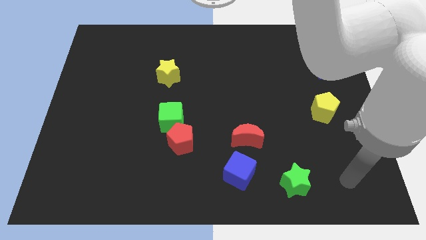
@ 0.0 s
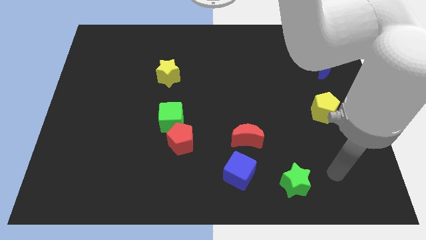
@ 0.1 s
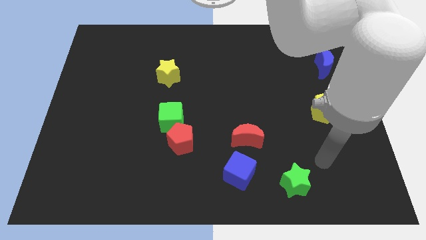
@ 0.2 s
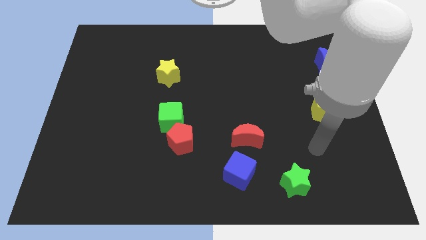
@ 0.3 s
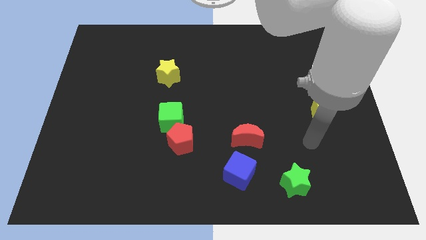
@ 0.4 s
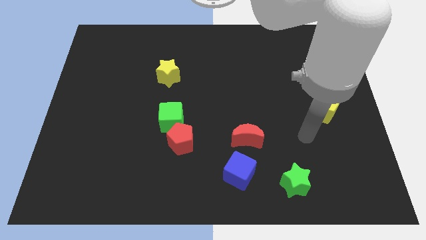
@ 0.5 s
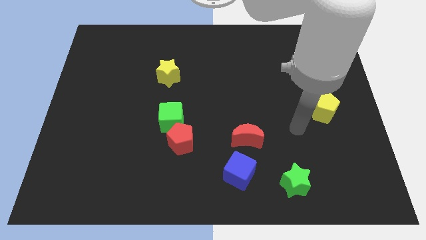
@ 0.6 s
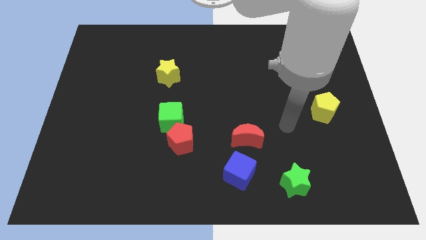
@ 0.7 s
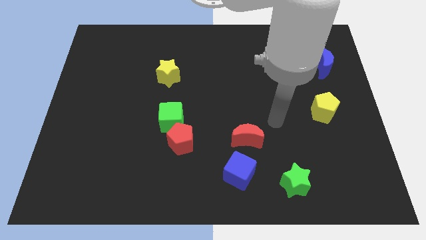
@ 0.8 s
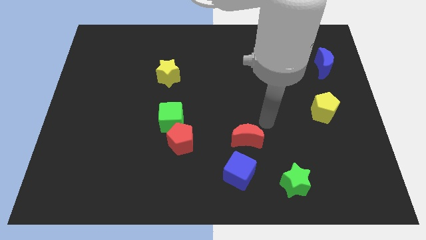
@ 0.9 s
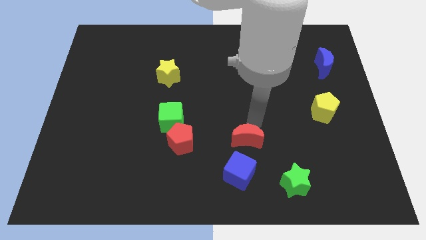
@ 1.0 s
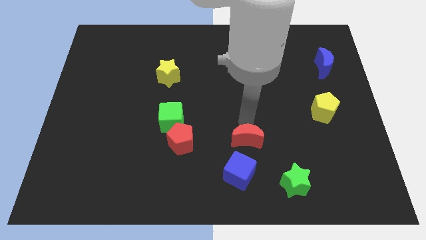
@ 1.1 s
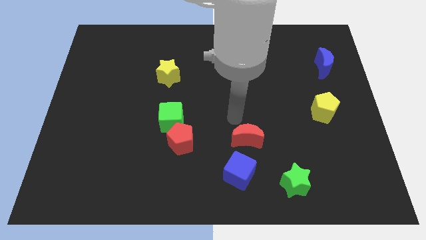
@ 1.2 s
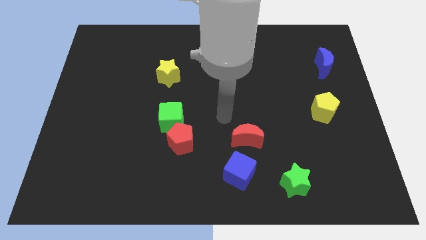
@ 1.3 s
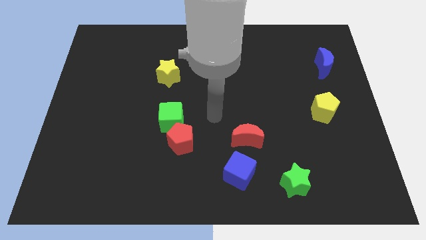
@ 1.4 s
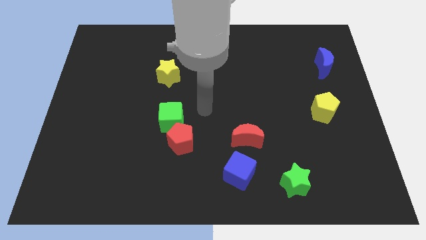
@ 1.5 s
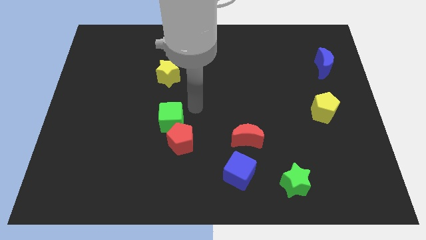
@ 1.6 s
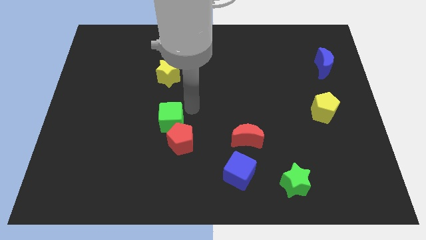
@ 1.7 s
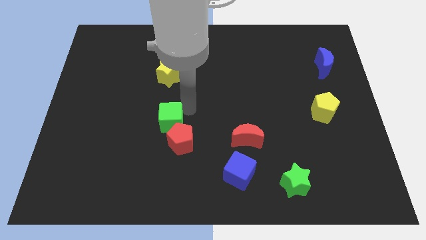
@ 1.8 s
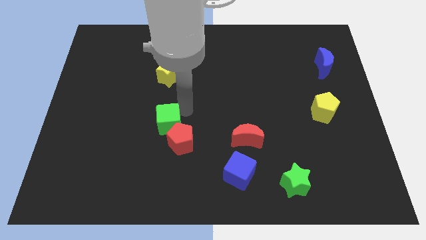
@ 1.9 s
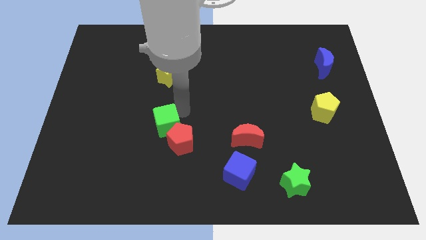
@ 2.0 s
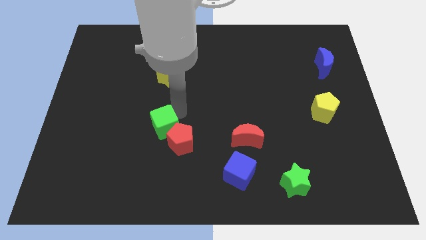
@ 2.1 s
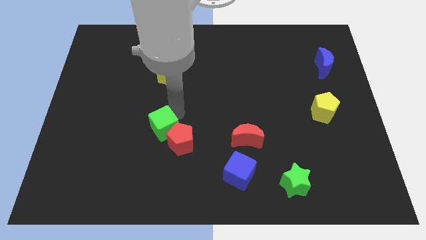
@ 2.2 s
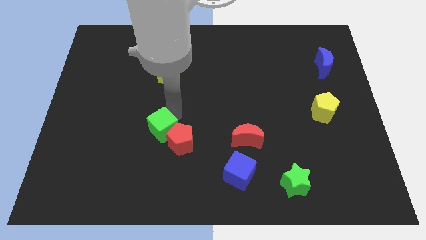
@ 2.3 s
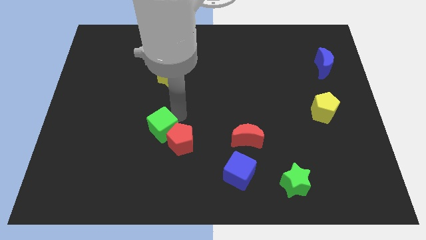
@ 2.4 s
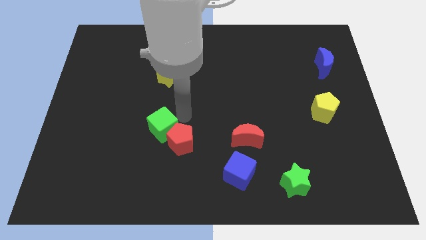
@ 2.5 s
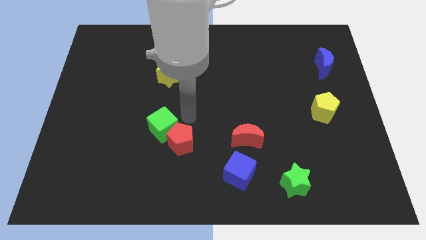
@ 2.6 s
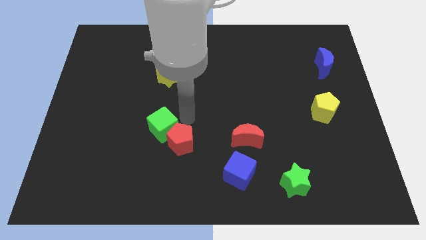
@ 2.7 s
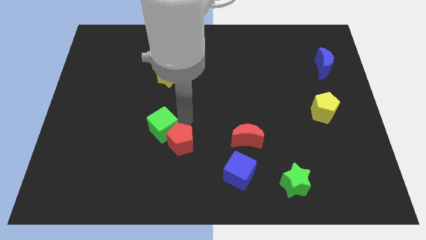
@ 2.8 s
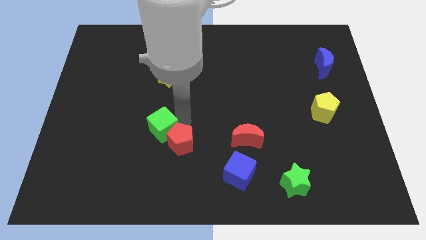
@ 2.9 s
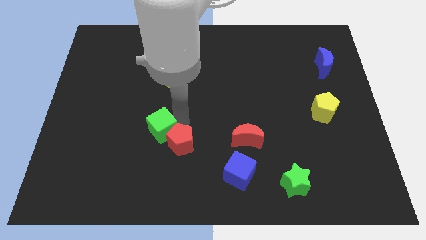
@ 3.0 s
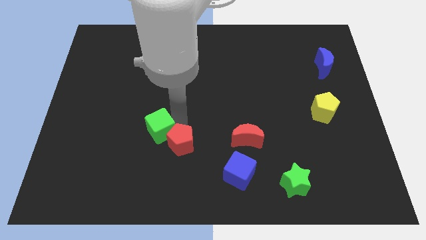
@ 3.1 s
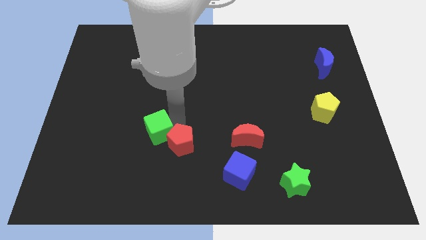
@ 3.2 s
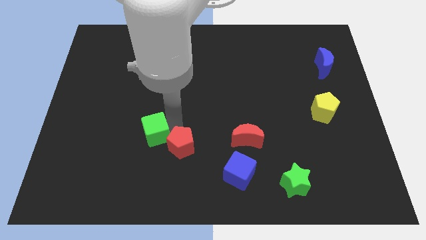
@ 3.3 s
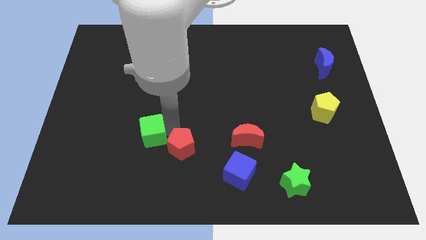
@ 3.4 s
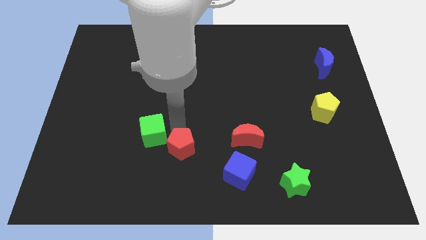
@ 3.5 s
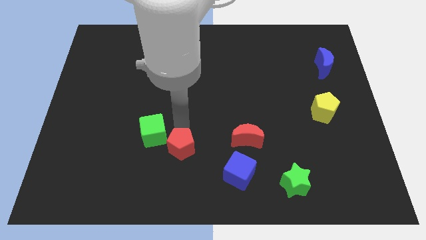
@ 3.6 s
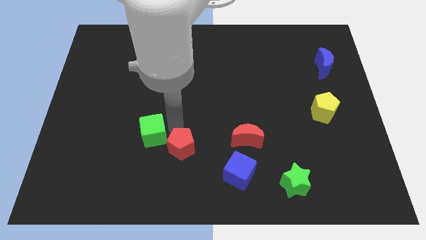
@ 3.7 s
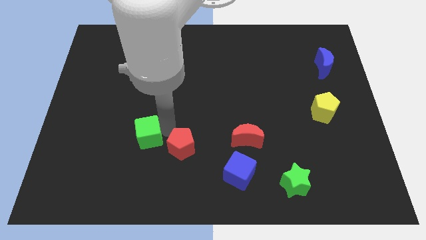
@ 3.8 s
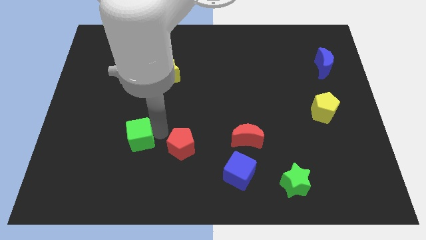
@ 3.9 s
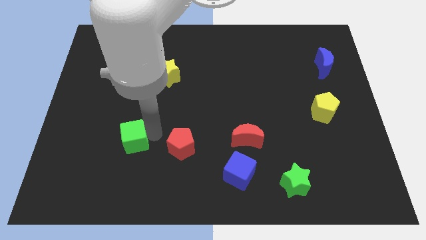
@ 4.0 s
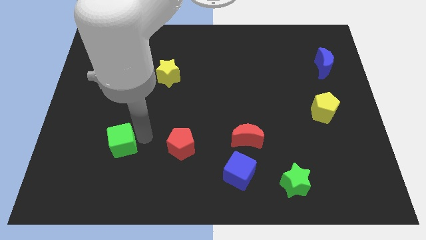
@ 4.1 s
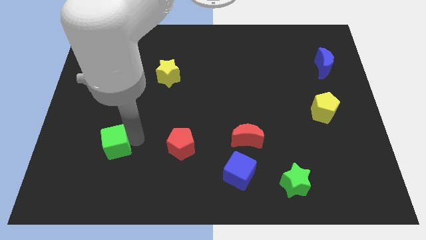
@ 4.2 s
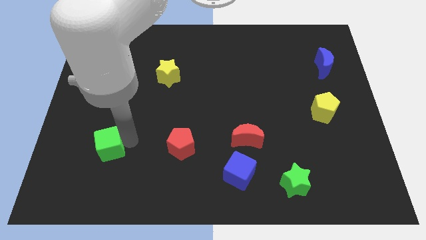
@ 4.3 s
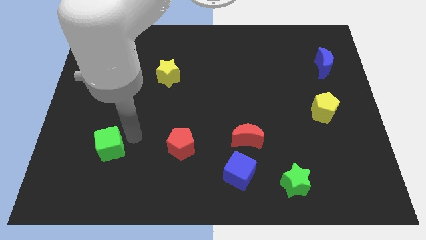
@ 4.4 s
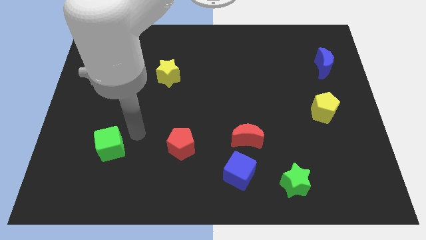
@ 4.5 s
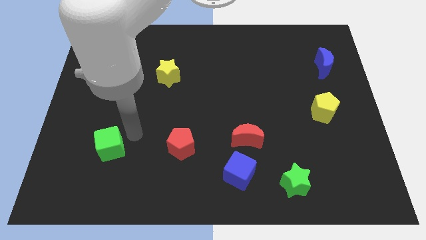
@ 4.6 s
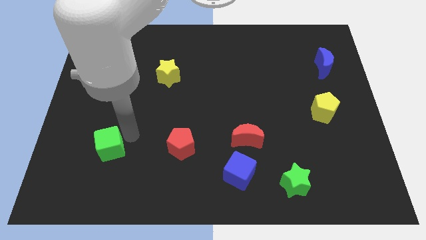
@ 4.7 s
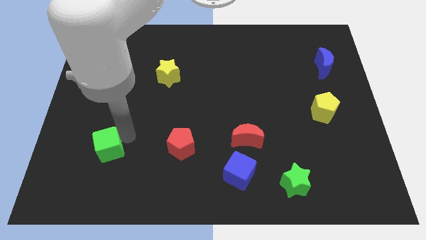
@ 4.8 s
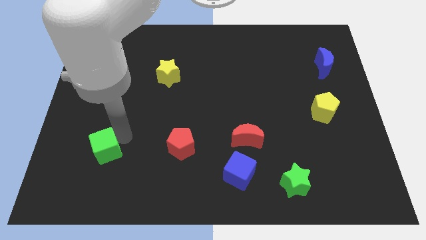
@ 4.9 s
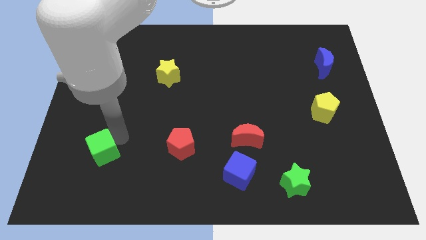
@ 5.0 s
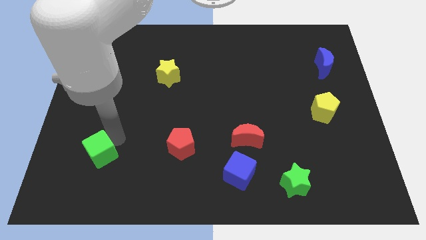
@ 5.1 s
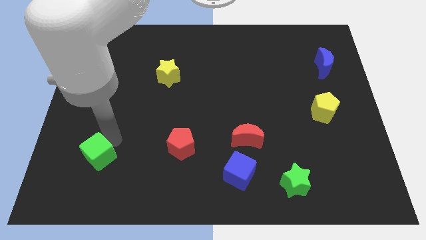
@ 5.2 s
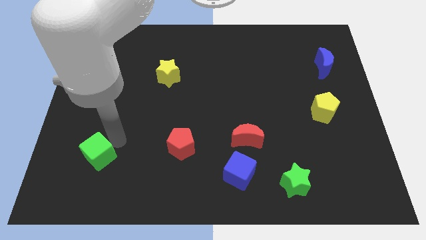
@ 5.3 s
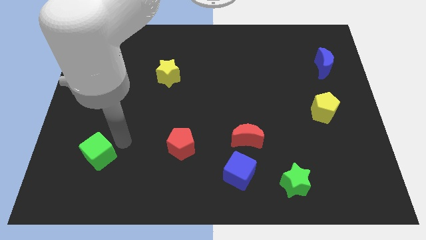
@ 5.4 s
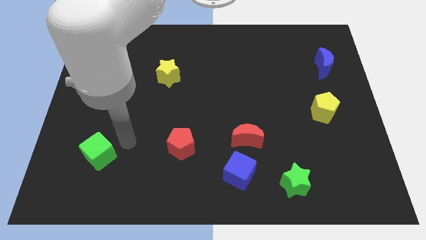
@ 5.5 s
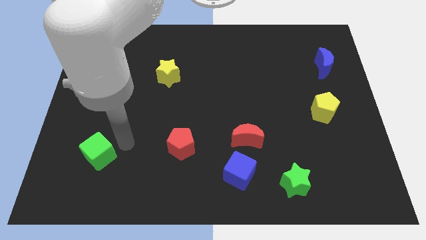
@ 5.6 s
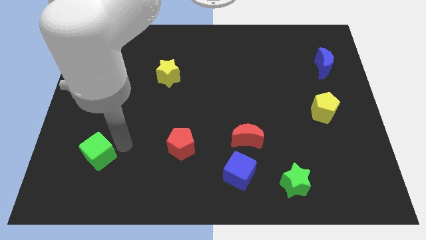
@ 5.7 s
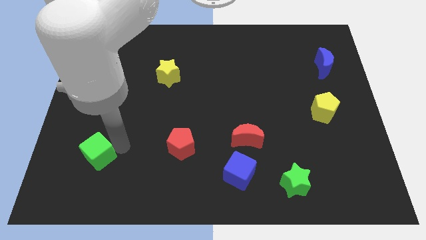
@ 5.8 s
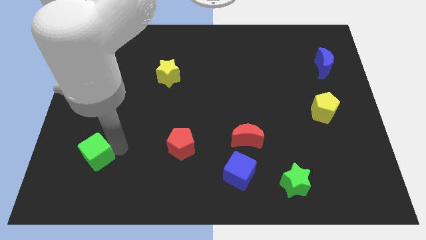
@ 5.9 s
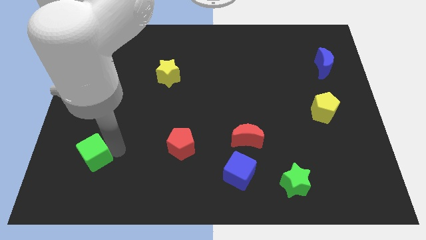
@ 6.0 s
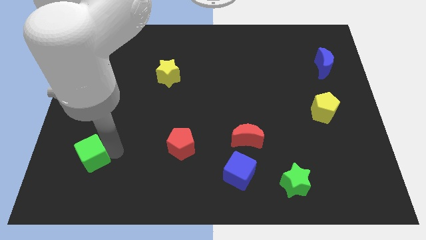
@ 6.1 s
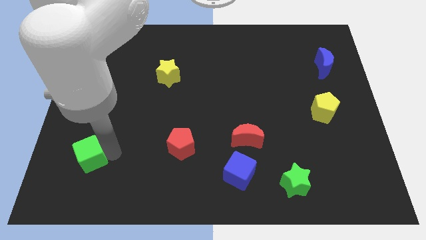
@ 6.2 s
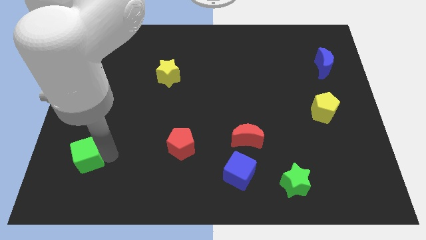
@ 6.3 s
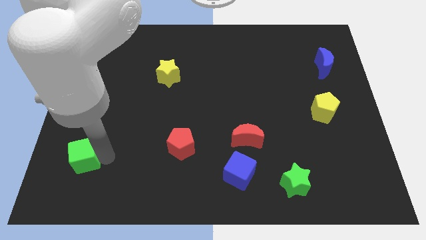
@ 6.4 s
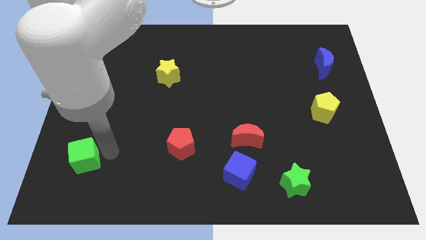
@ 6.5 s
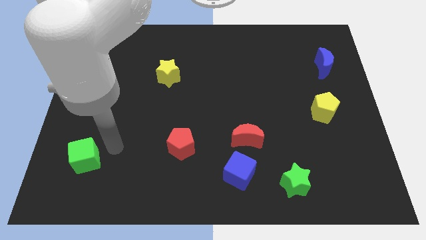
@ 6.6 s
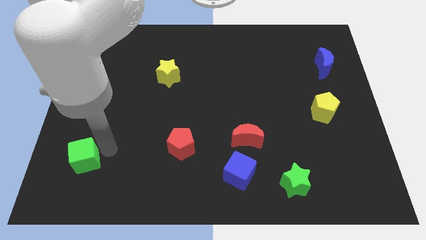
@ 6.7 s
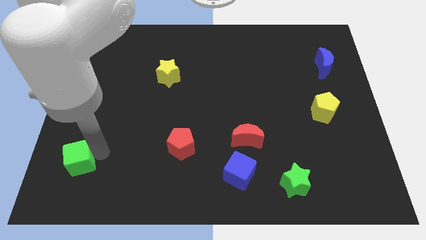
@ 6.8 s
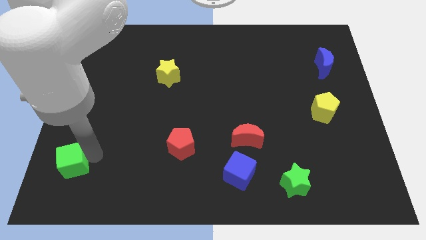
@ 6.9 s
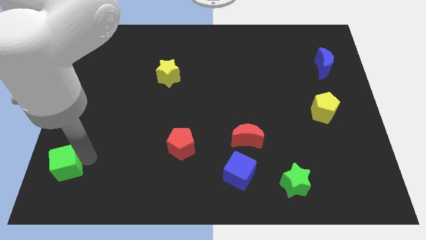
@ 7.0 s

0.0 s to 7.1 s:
put the green cube to the lower left corner
